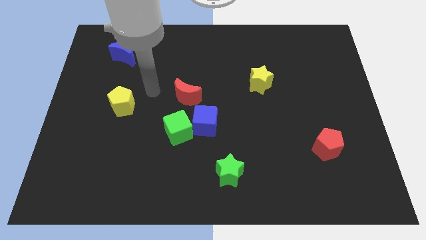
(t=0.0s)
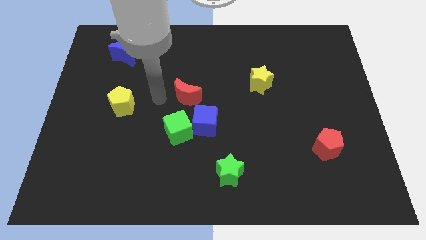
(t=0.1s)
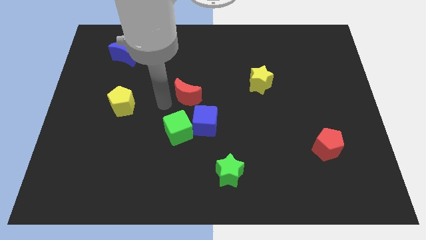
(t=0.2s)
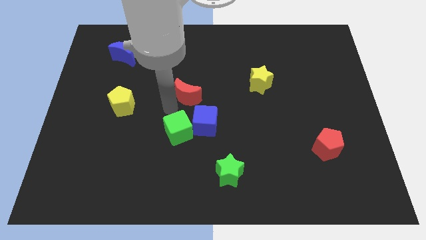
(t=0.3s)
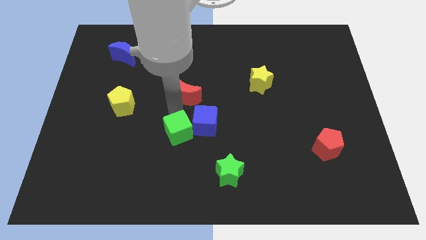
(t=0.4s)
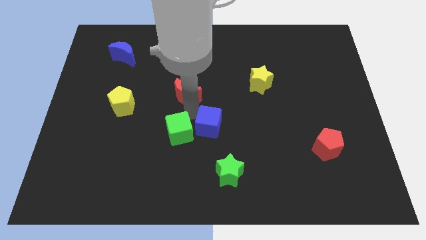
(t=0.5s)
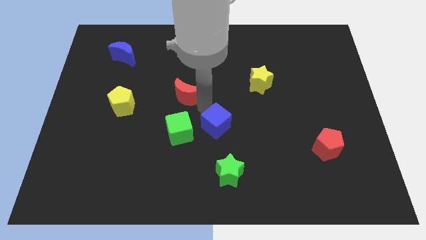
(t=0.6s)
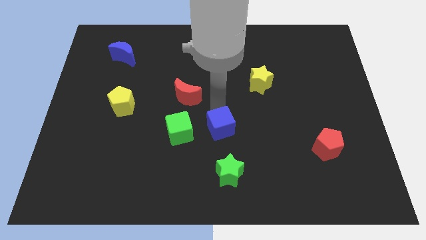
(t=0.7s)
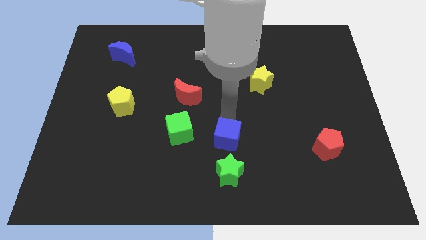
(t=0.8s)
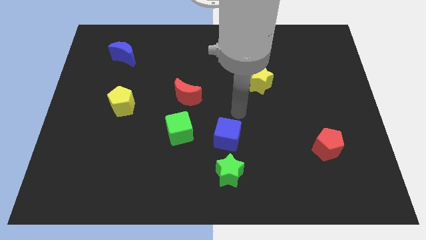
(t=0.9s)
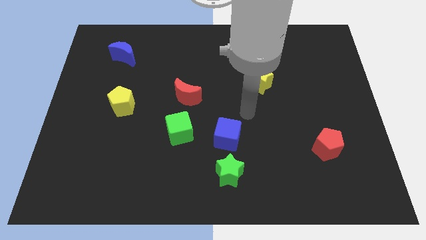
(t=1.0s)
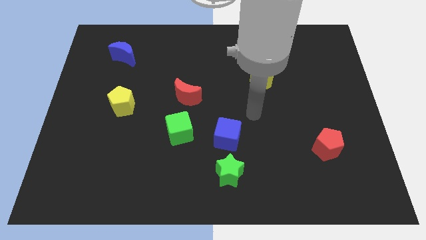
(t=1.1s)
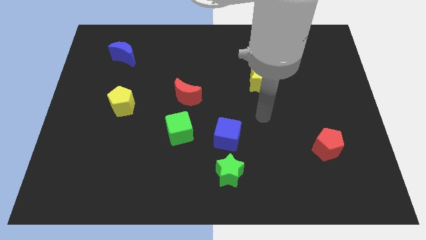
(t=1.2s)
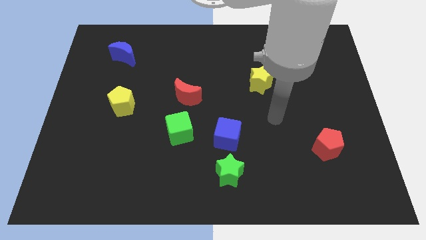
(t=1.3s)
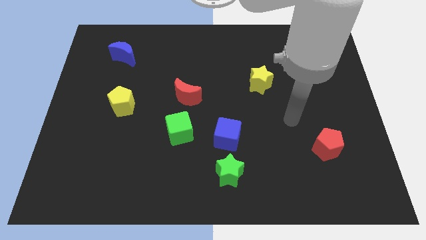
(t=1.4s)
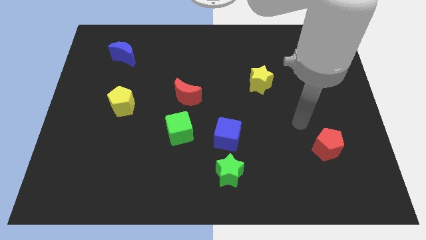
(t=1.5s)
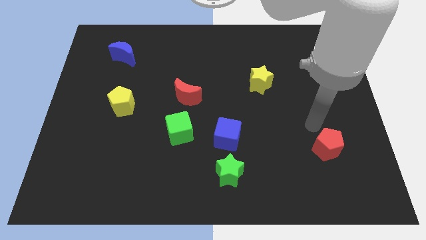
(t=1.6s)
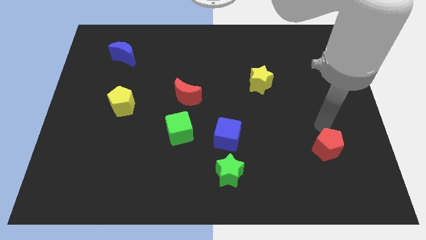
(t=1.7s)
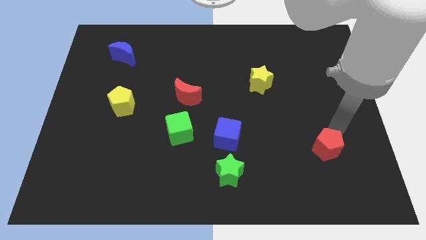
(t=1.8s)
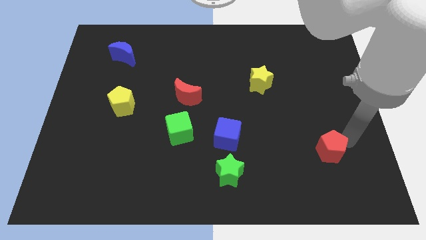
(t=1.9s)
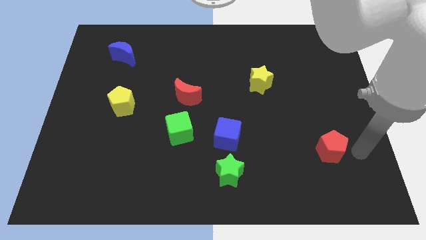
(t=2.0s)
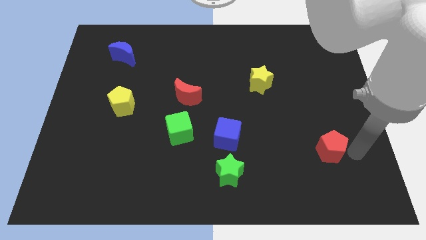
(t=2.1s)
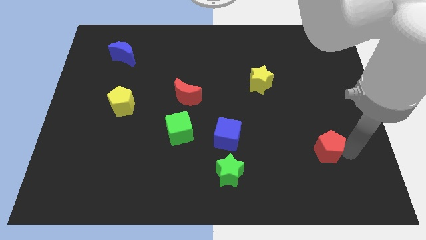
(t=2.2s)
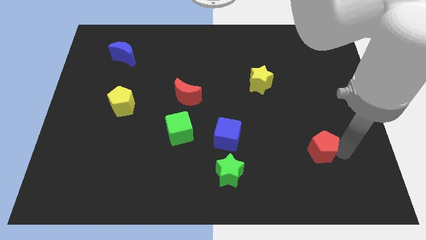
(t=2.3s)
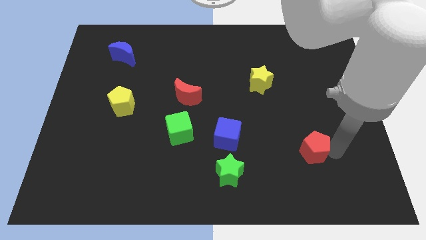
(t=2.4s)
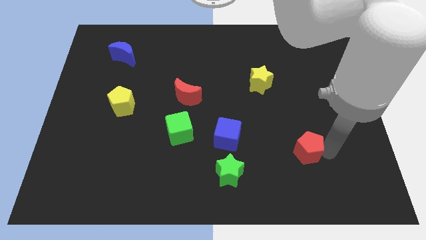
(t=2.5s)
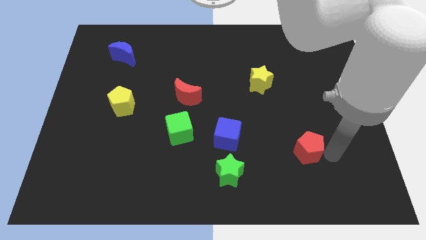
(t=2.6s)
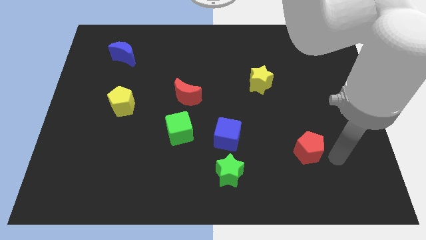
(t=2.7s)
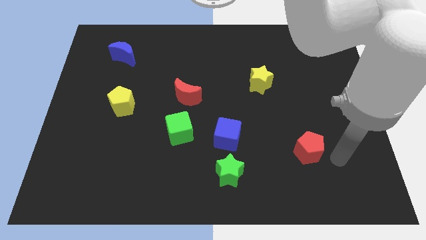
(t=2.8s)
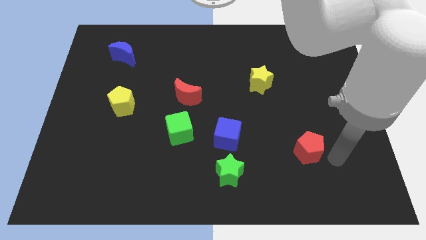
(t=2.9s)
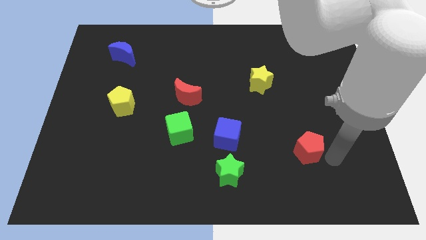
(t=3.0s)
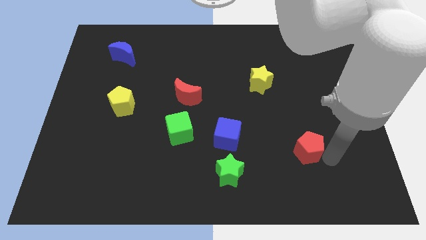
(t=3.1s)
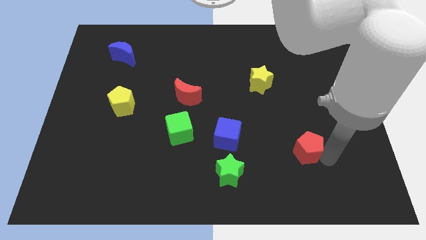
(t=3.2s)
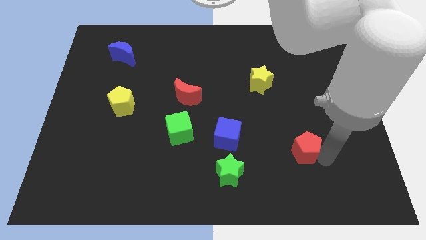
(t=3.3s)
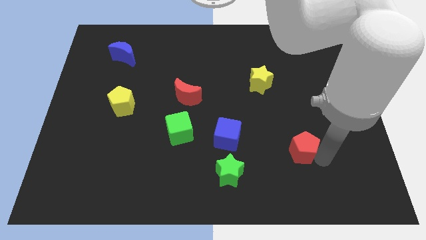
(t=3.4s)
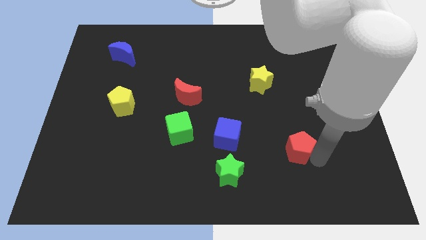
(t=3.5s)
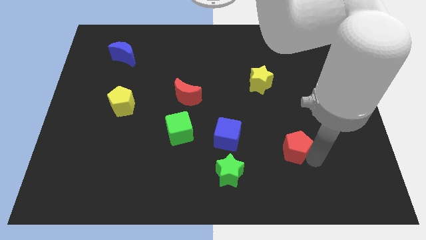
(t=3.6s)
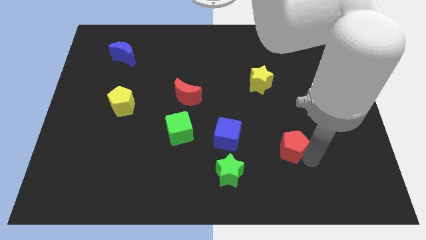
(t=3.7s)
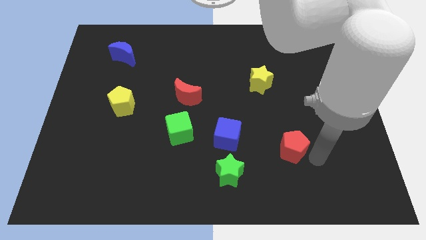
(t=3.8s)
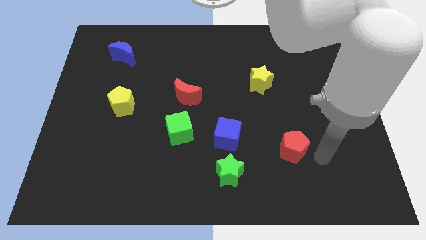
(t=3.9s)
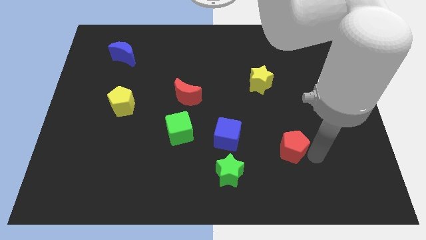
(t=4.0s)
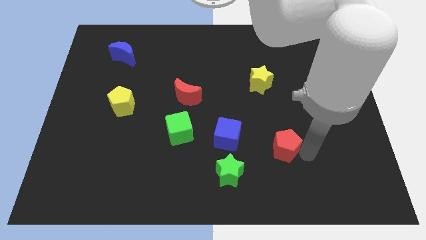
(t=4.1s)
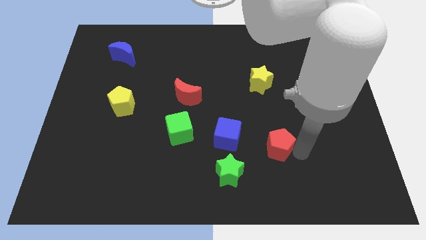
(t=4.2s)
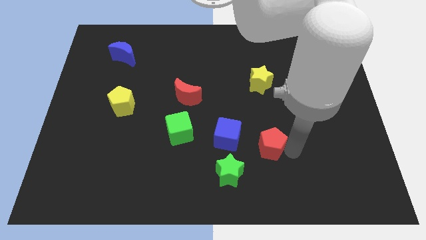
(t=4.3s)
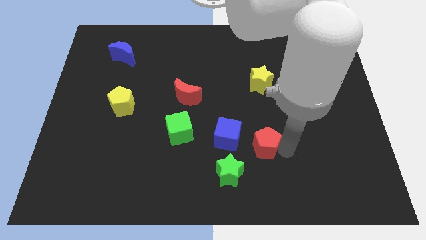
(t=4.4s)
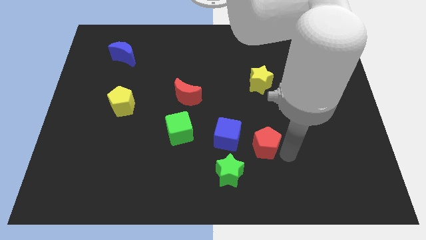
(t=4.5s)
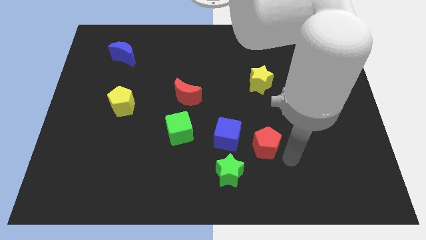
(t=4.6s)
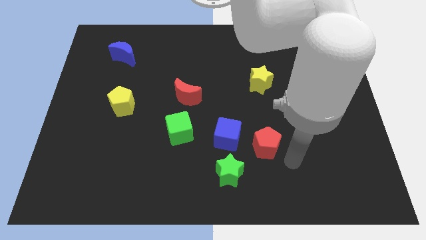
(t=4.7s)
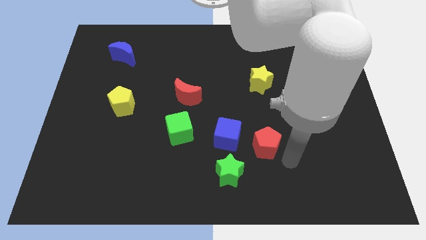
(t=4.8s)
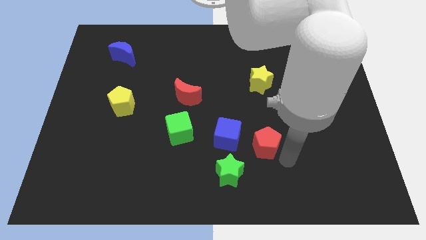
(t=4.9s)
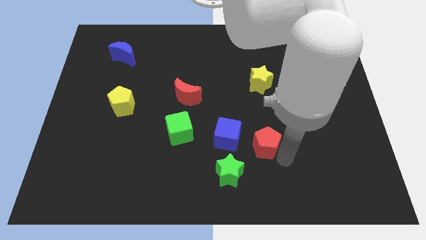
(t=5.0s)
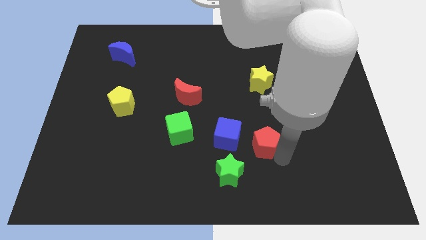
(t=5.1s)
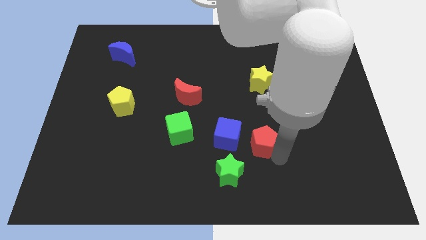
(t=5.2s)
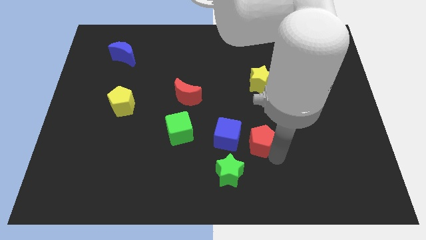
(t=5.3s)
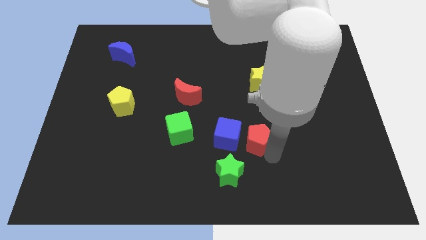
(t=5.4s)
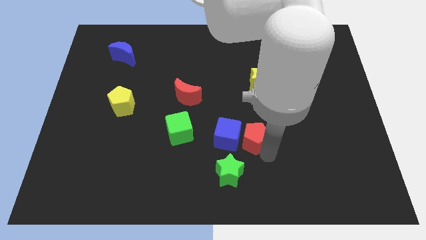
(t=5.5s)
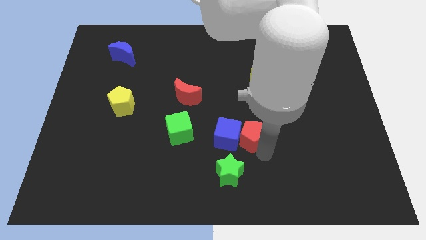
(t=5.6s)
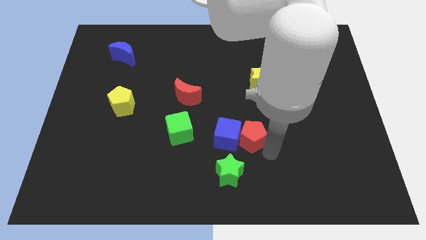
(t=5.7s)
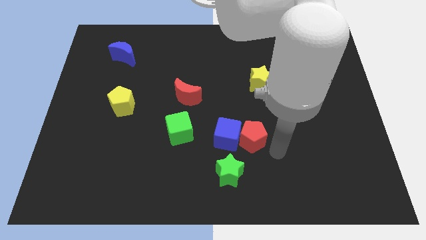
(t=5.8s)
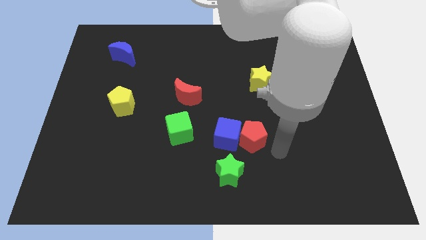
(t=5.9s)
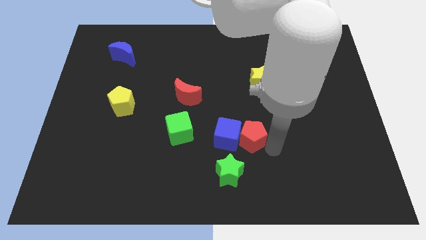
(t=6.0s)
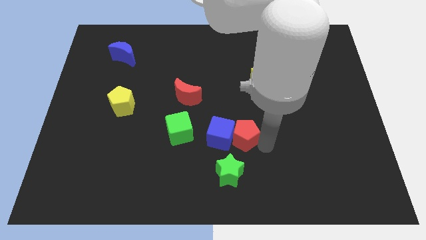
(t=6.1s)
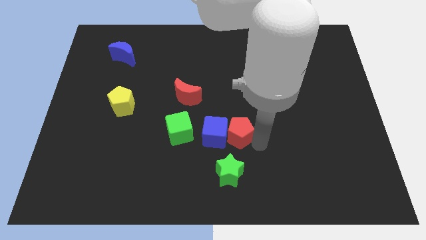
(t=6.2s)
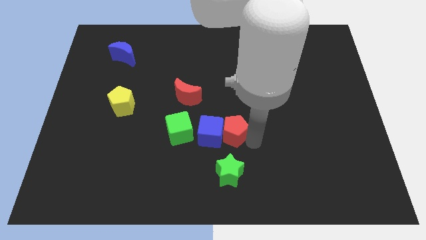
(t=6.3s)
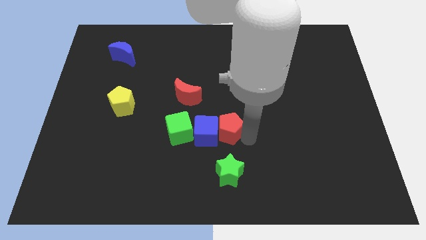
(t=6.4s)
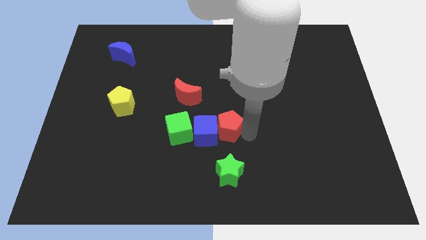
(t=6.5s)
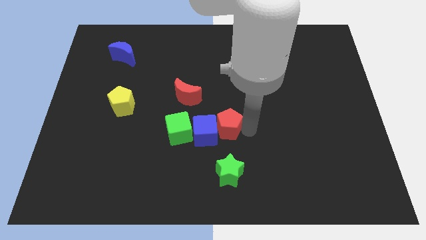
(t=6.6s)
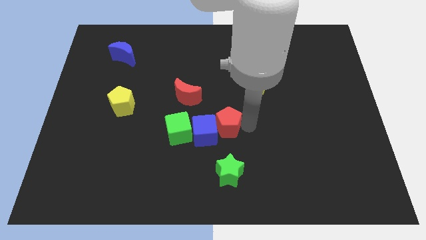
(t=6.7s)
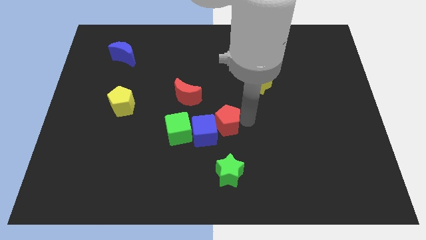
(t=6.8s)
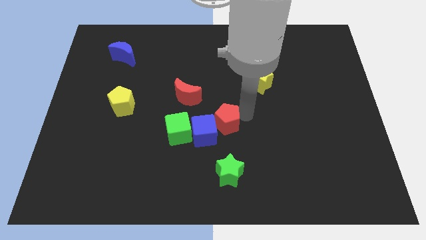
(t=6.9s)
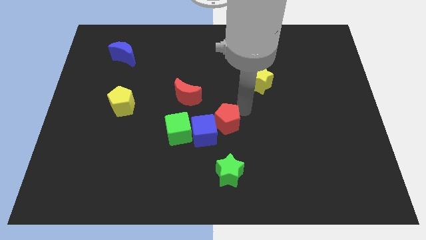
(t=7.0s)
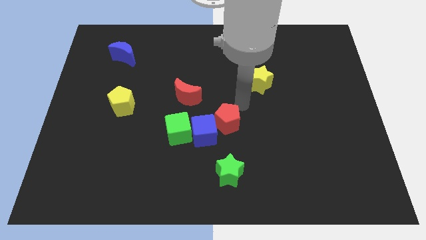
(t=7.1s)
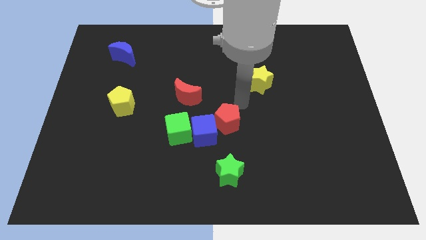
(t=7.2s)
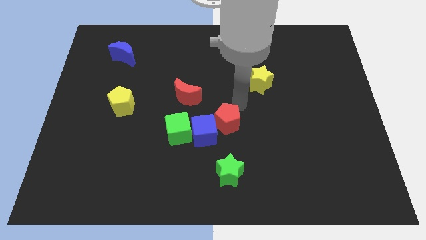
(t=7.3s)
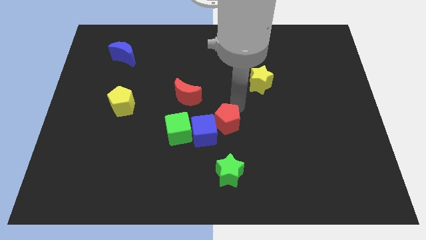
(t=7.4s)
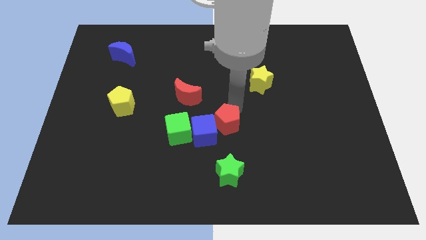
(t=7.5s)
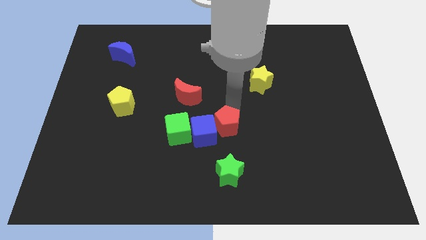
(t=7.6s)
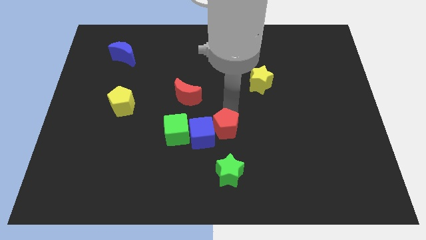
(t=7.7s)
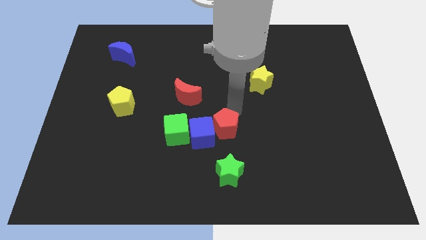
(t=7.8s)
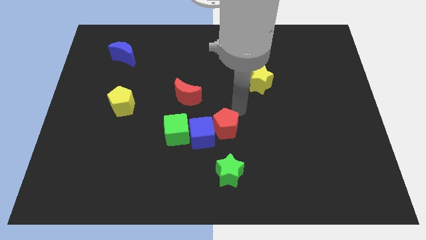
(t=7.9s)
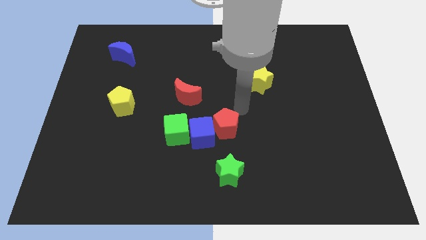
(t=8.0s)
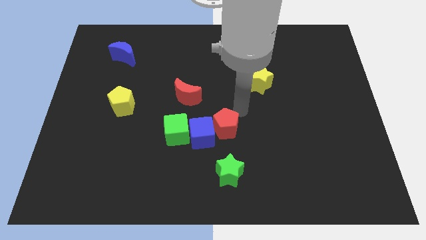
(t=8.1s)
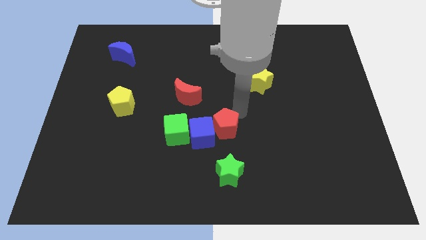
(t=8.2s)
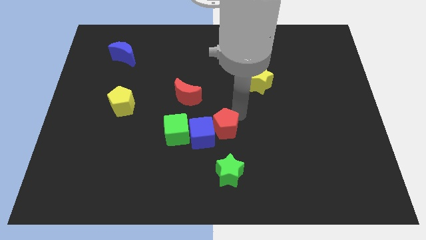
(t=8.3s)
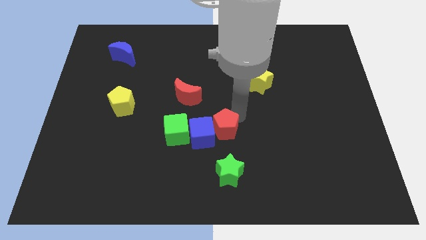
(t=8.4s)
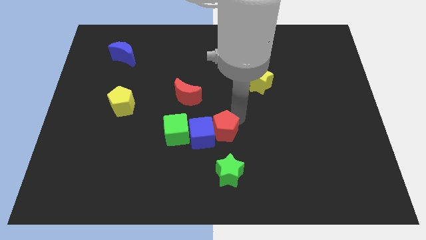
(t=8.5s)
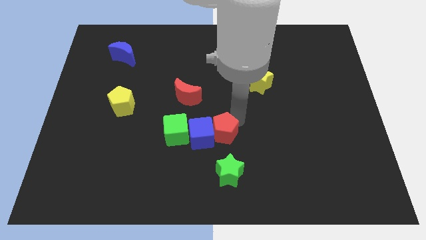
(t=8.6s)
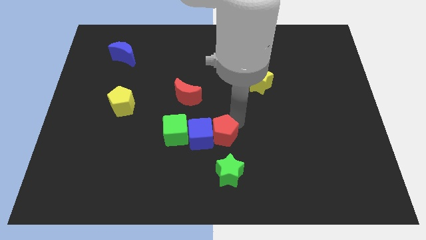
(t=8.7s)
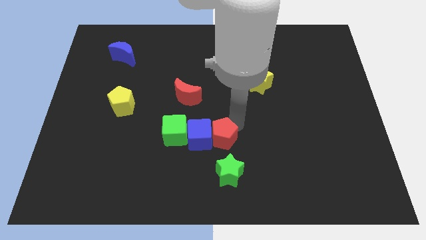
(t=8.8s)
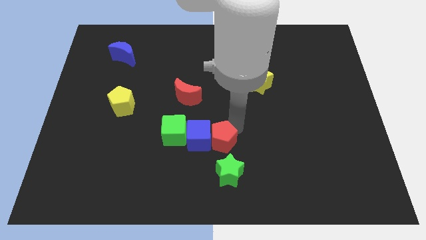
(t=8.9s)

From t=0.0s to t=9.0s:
slide the red pentagon to the top left of the green star
